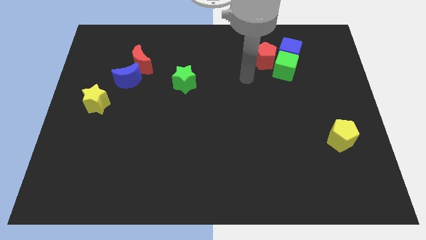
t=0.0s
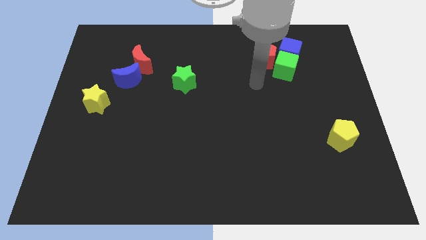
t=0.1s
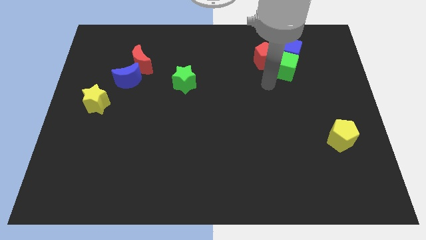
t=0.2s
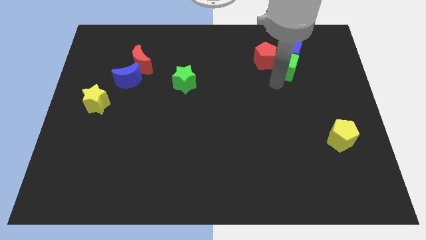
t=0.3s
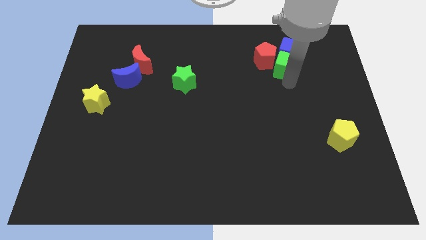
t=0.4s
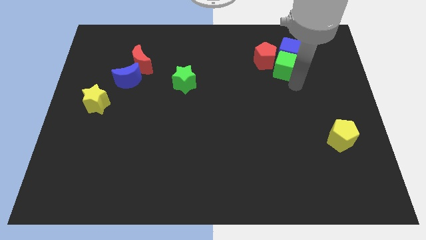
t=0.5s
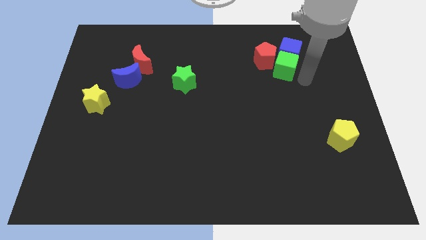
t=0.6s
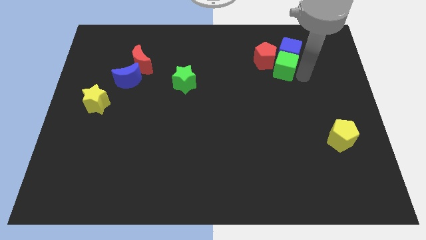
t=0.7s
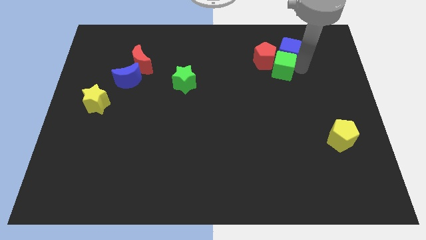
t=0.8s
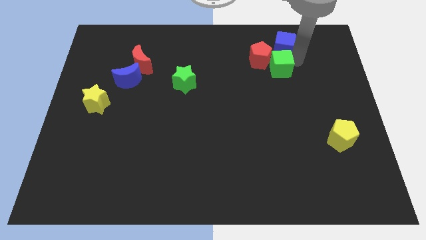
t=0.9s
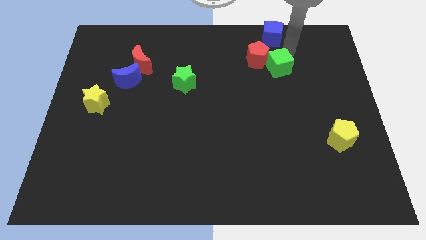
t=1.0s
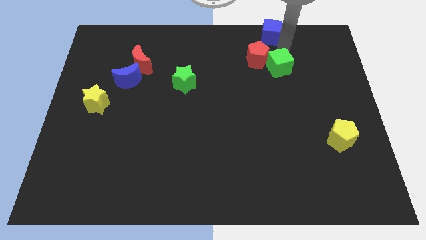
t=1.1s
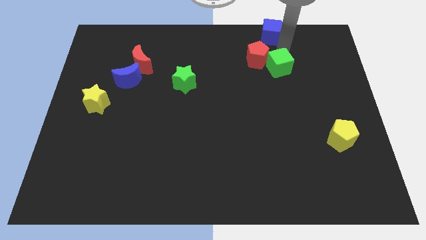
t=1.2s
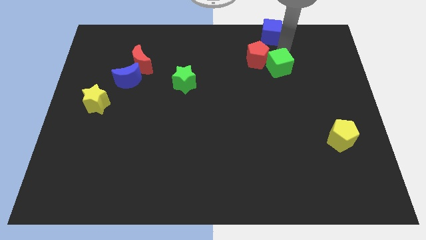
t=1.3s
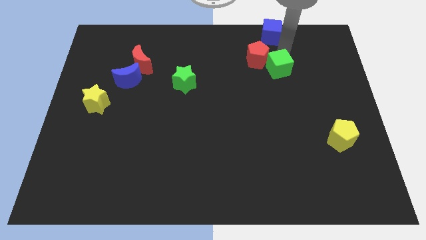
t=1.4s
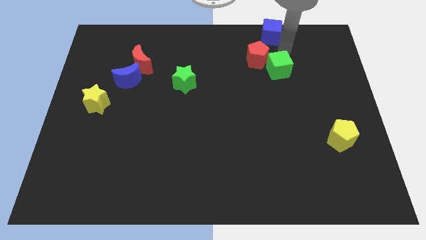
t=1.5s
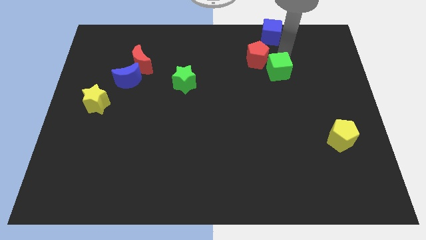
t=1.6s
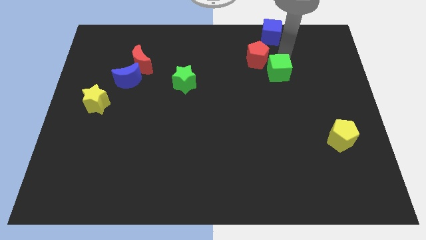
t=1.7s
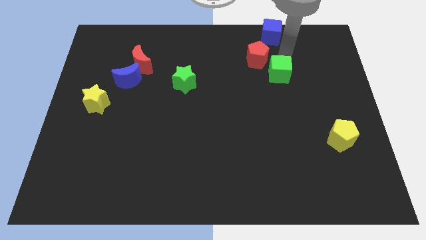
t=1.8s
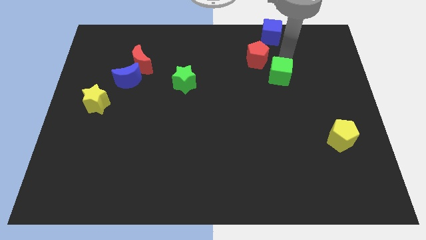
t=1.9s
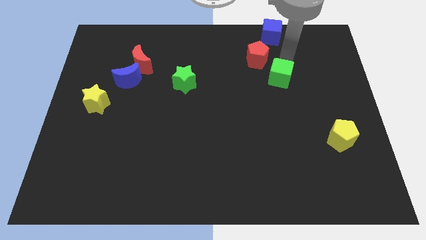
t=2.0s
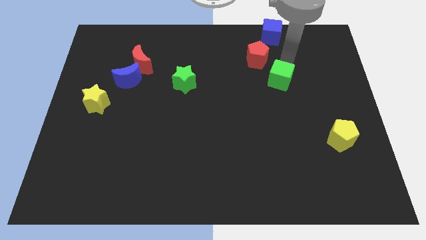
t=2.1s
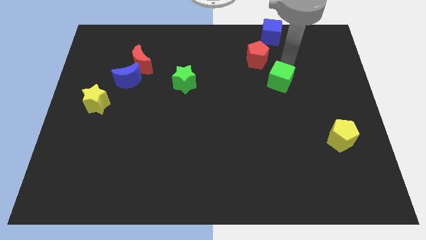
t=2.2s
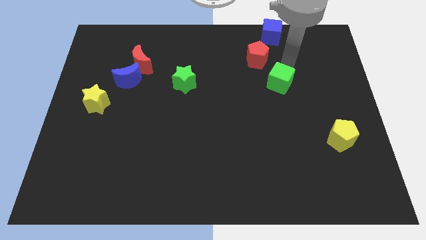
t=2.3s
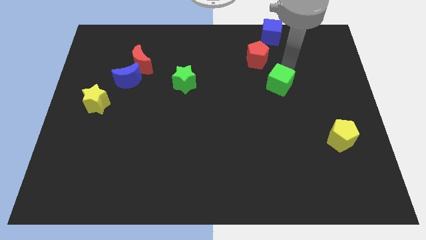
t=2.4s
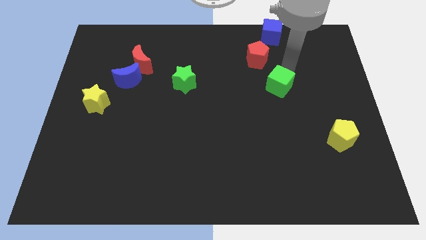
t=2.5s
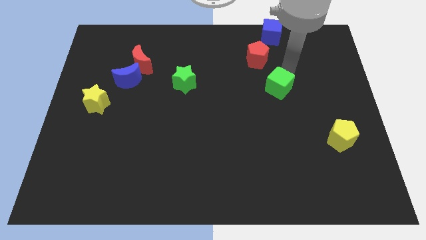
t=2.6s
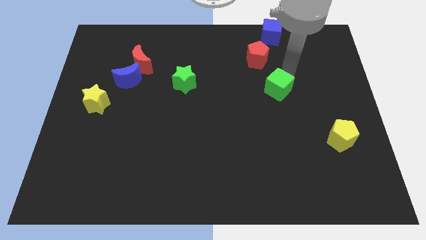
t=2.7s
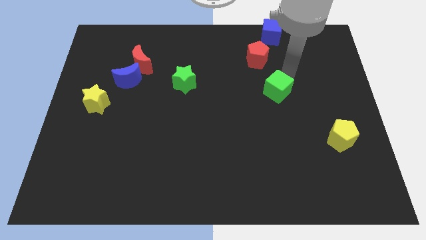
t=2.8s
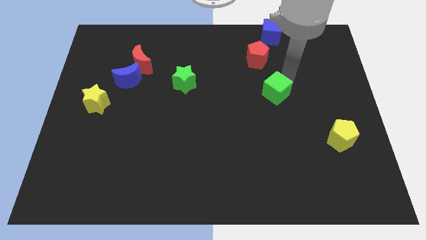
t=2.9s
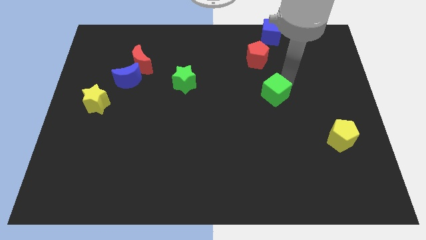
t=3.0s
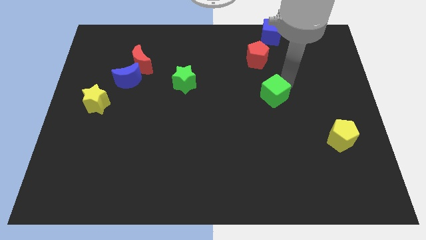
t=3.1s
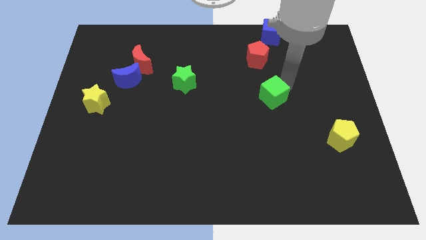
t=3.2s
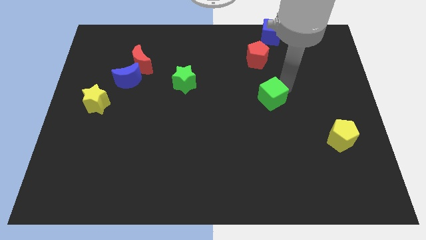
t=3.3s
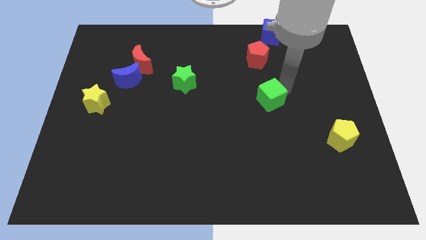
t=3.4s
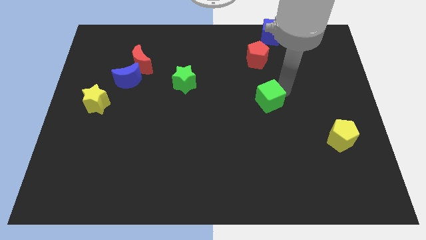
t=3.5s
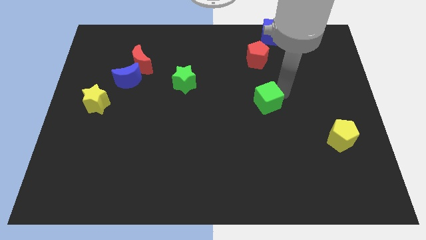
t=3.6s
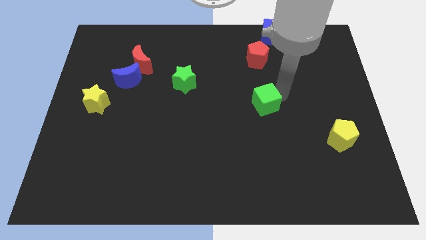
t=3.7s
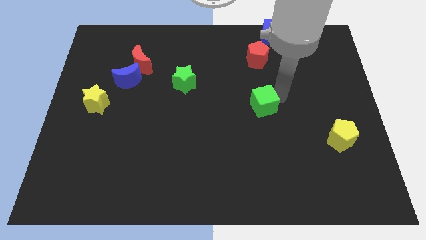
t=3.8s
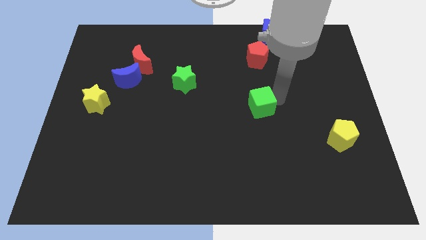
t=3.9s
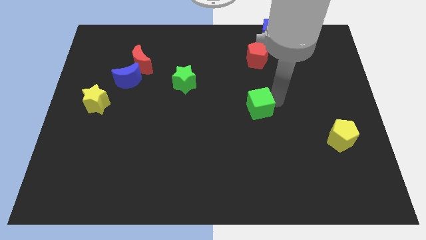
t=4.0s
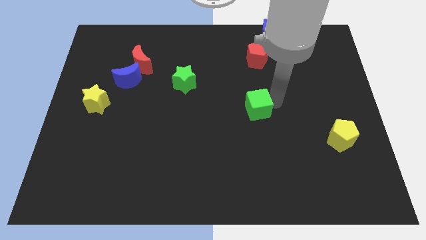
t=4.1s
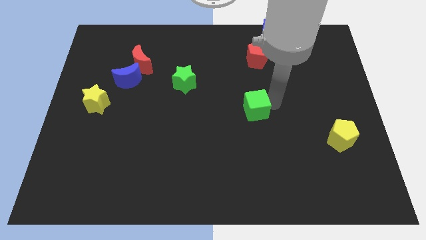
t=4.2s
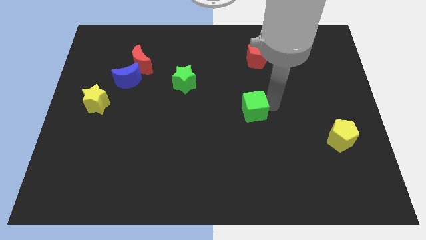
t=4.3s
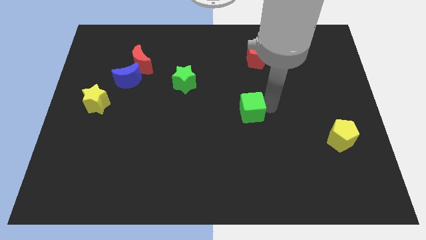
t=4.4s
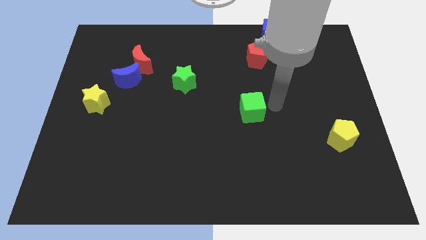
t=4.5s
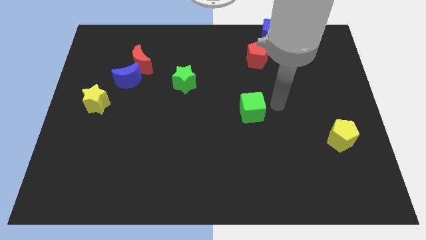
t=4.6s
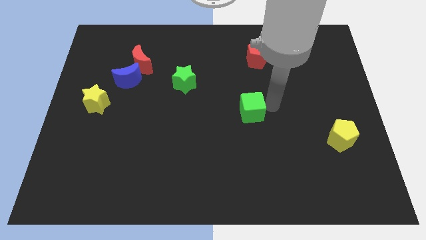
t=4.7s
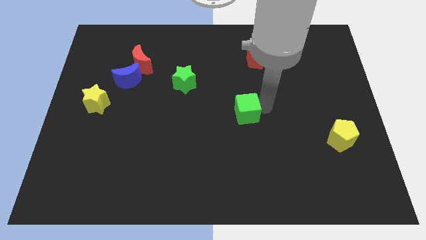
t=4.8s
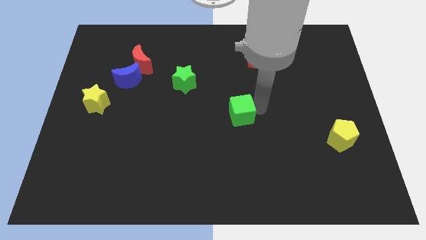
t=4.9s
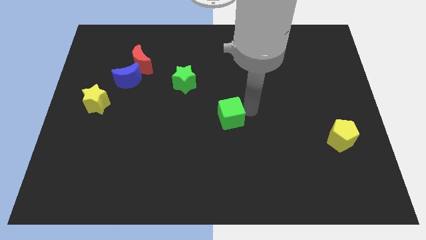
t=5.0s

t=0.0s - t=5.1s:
push the green cube down and to the left

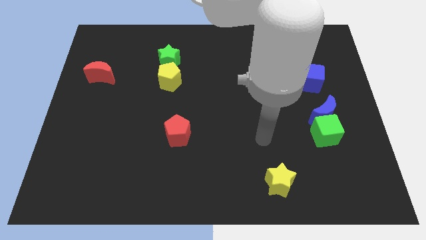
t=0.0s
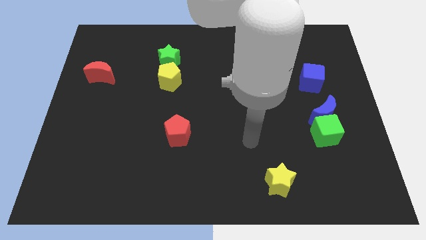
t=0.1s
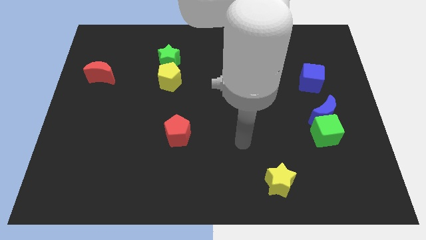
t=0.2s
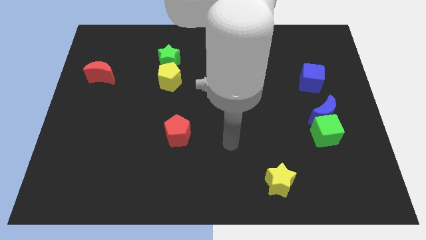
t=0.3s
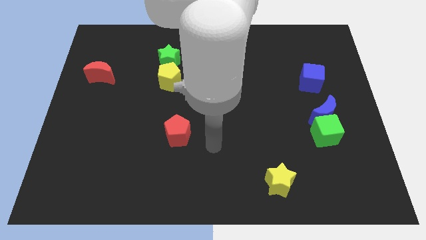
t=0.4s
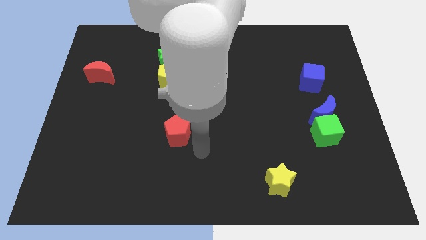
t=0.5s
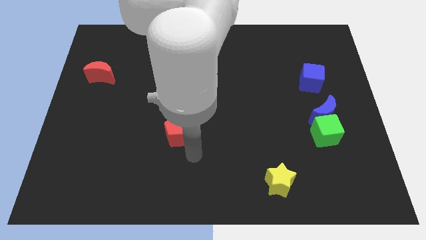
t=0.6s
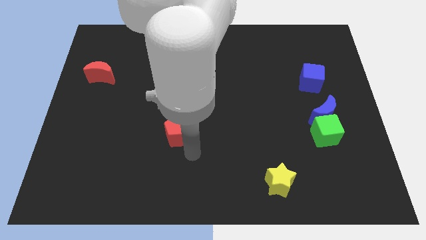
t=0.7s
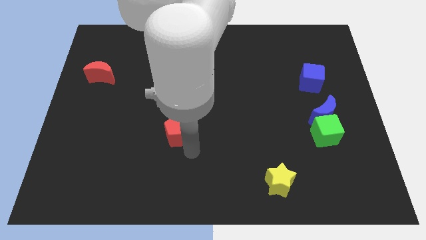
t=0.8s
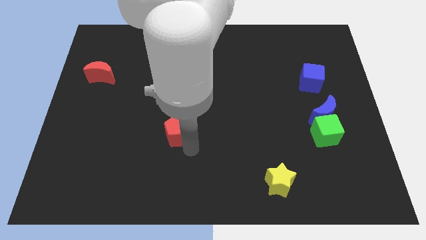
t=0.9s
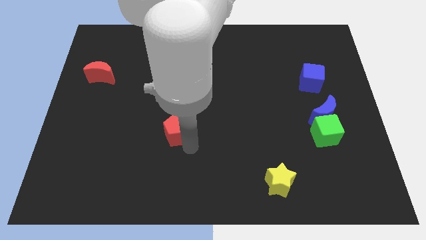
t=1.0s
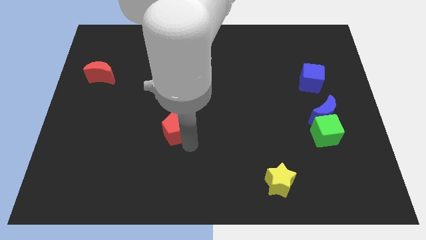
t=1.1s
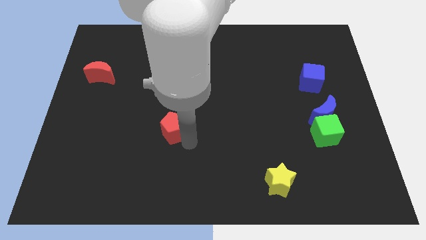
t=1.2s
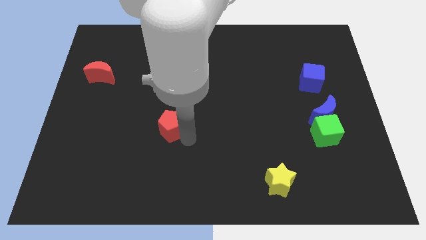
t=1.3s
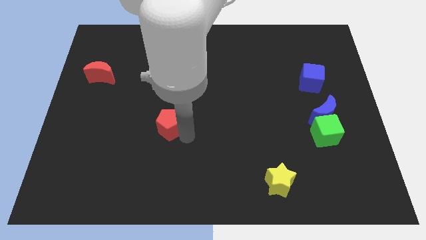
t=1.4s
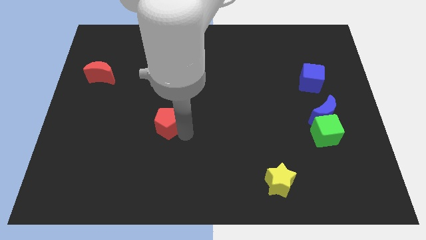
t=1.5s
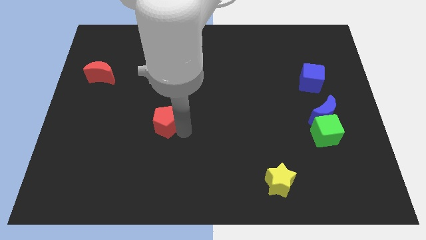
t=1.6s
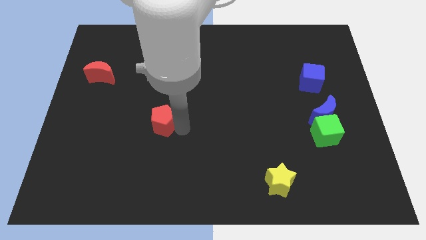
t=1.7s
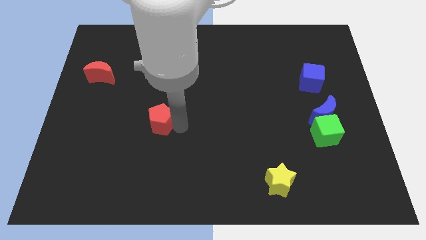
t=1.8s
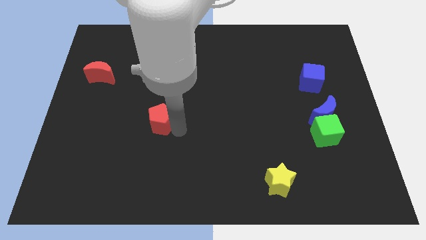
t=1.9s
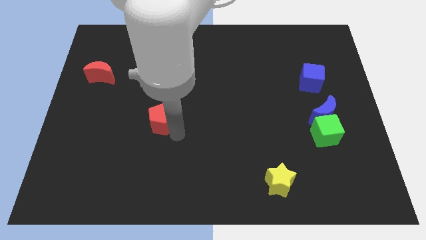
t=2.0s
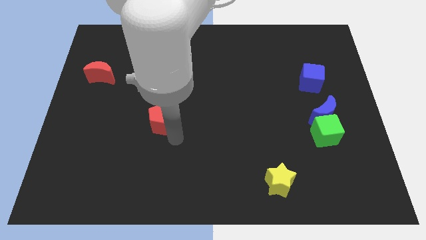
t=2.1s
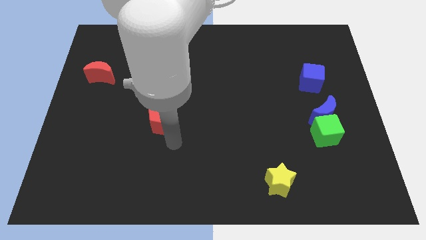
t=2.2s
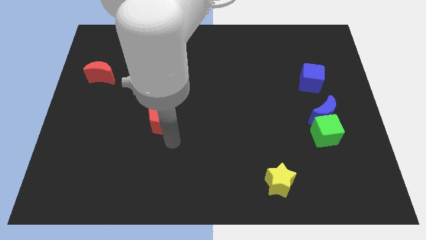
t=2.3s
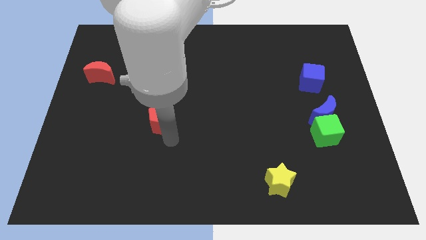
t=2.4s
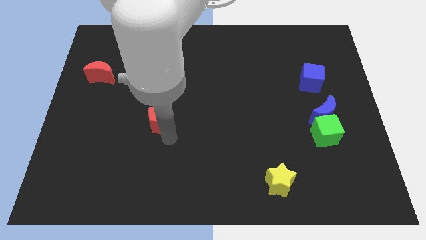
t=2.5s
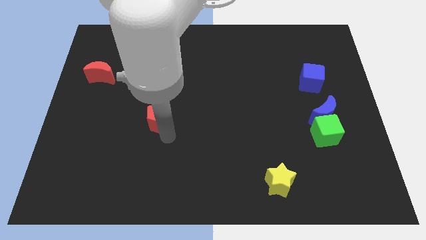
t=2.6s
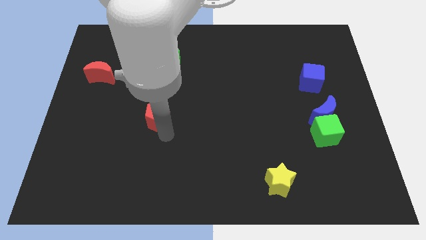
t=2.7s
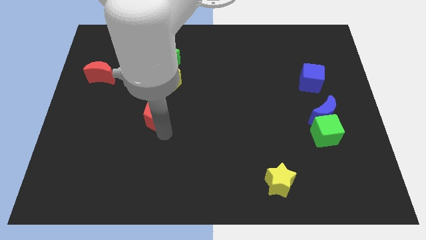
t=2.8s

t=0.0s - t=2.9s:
move the red pentagon a little diagonally upwards and left

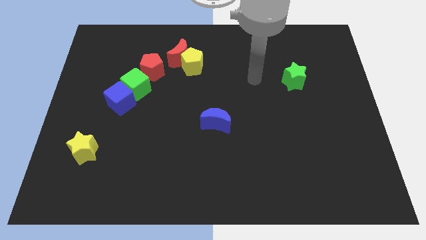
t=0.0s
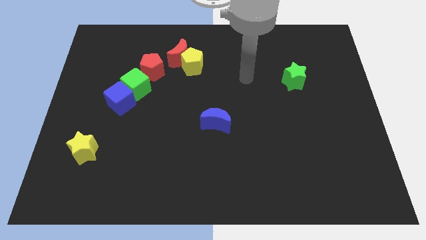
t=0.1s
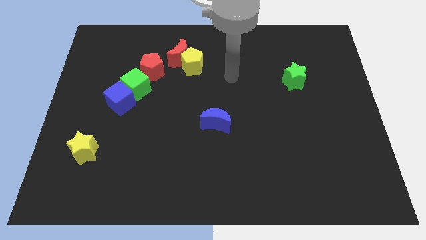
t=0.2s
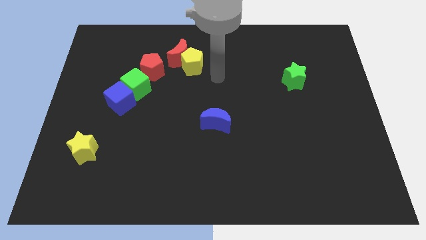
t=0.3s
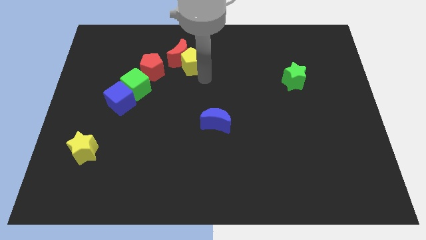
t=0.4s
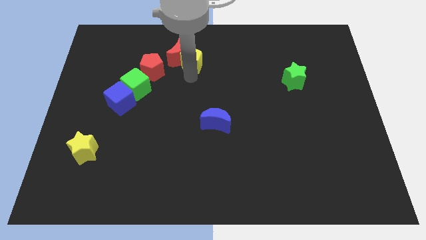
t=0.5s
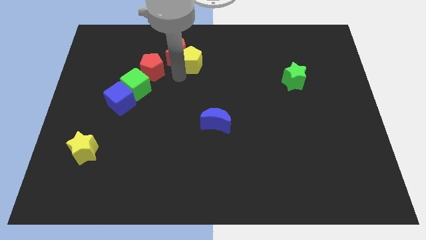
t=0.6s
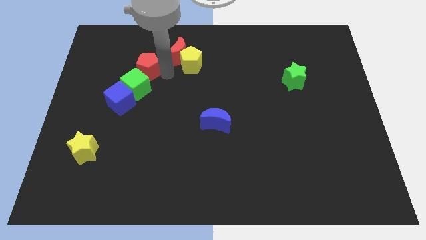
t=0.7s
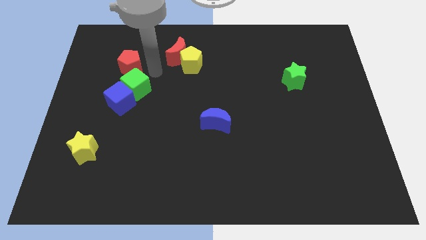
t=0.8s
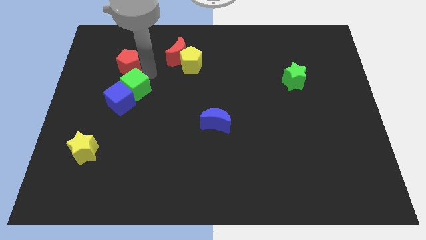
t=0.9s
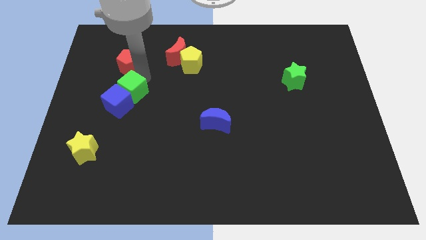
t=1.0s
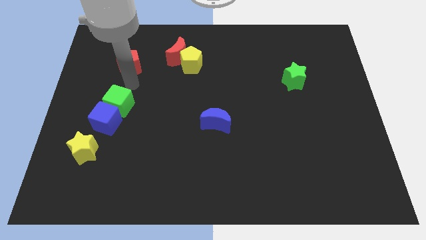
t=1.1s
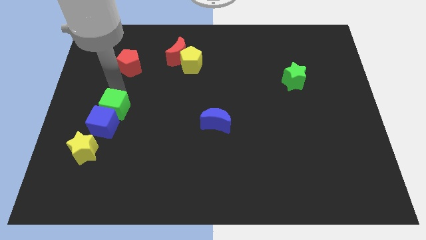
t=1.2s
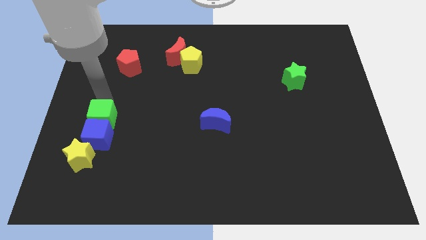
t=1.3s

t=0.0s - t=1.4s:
push the blue cube down a little
